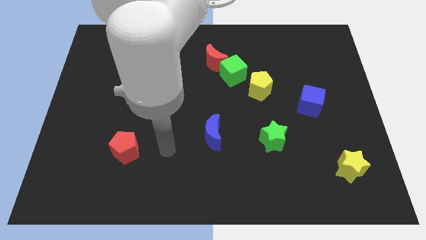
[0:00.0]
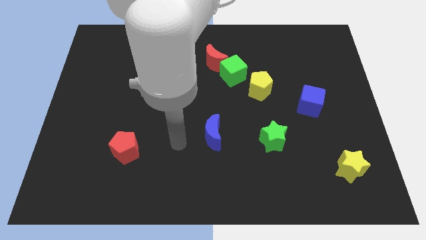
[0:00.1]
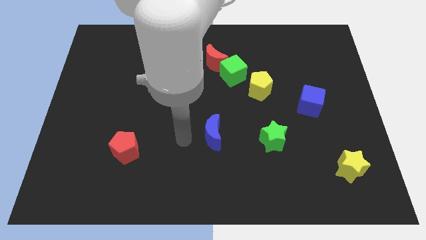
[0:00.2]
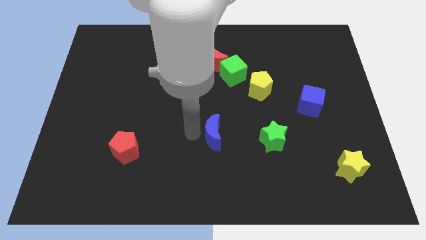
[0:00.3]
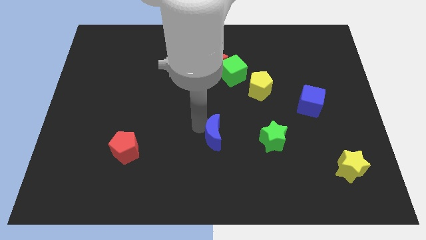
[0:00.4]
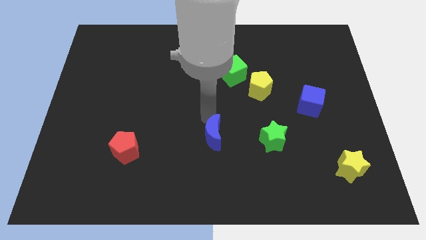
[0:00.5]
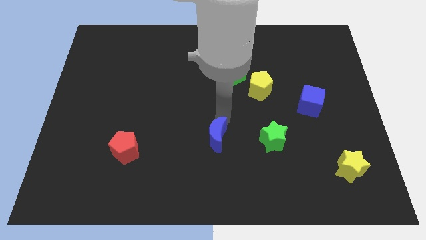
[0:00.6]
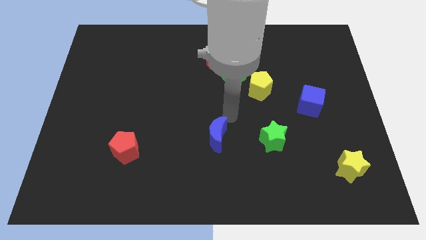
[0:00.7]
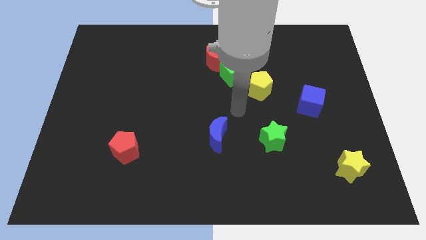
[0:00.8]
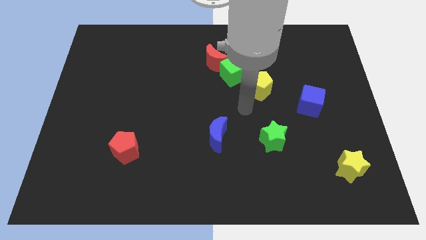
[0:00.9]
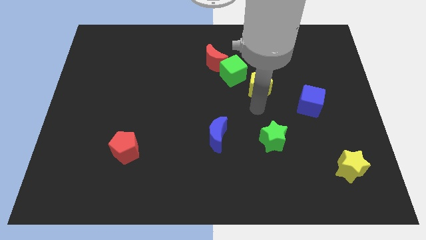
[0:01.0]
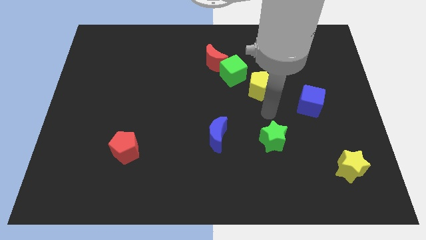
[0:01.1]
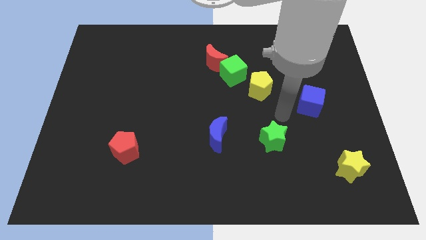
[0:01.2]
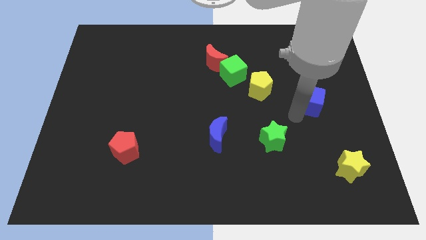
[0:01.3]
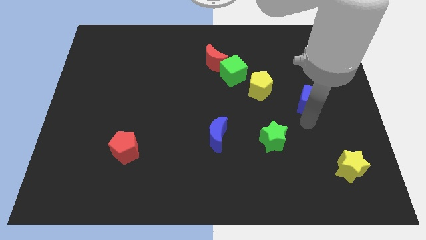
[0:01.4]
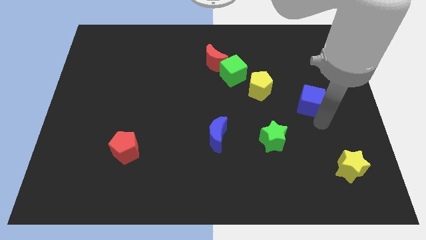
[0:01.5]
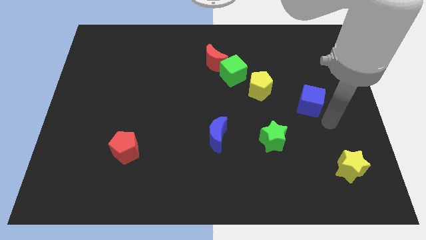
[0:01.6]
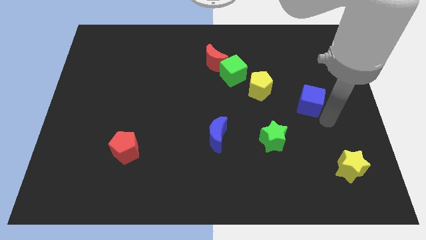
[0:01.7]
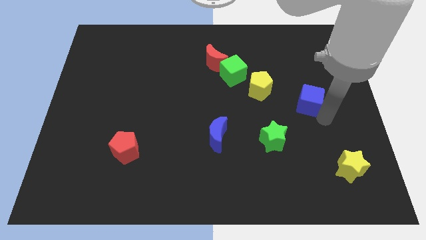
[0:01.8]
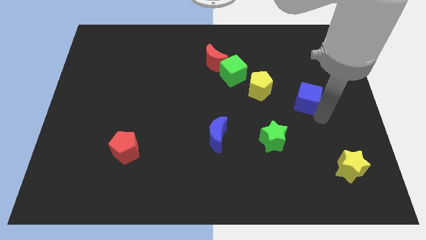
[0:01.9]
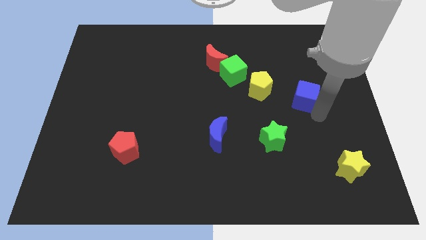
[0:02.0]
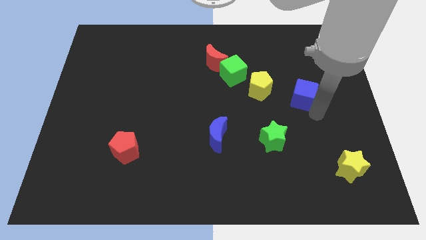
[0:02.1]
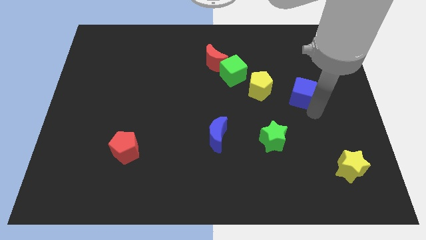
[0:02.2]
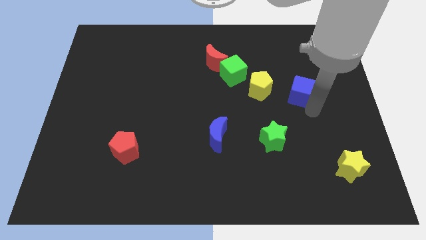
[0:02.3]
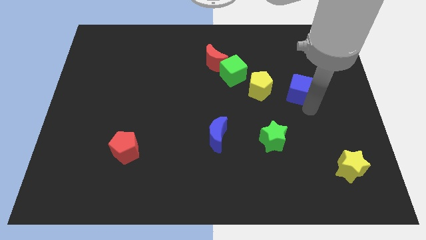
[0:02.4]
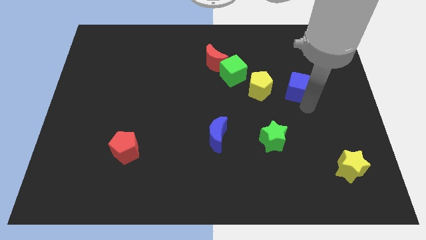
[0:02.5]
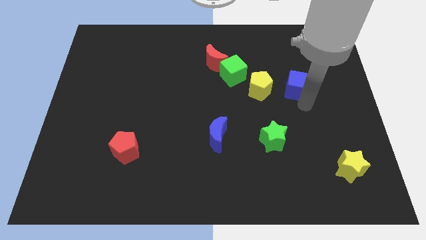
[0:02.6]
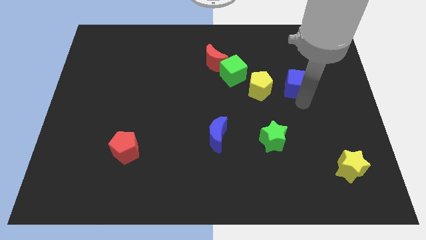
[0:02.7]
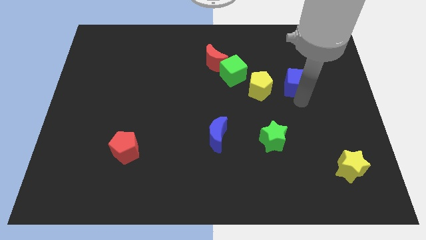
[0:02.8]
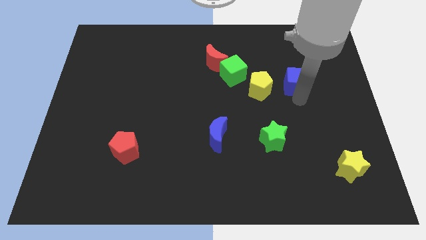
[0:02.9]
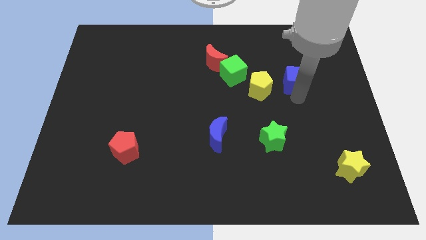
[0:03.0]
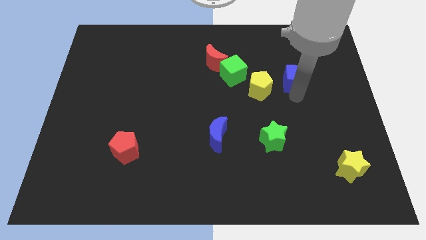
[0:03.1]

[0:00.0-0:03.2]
slide the blue cube upwards and to the left a little

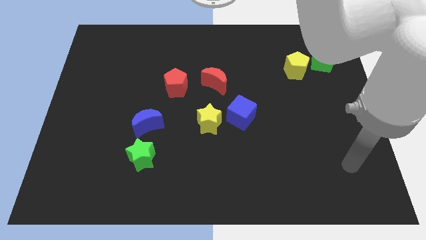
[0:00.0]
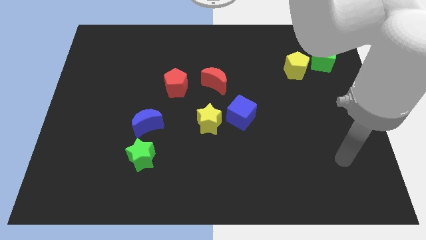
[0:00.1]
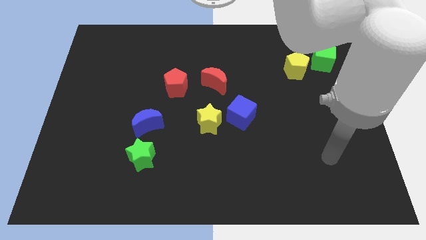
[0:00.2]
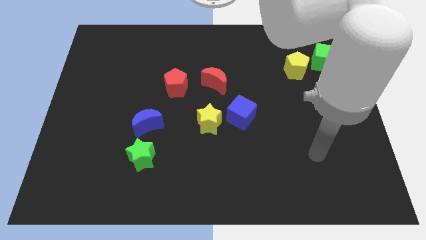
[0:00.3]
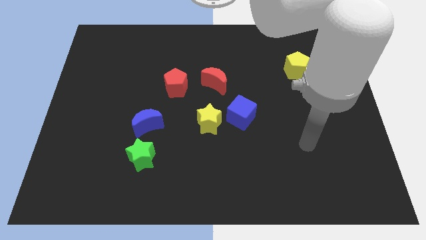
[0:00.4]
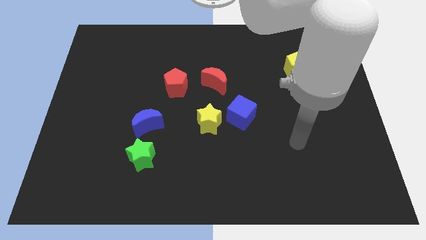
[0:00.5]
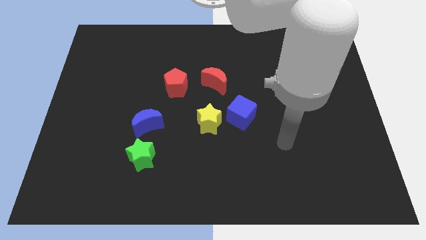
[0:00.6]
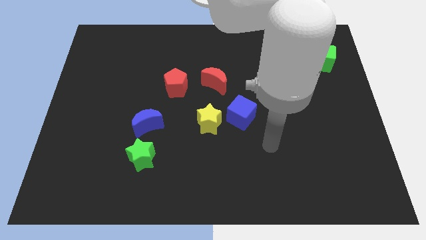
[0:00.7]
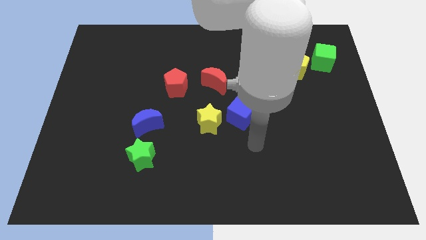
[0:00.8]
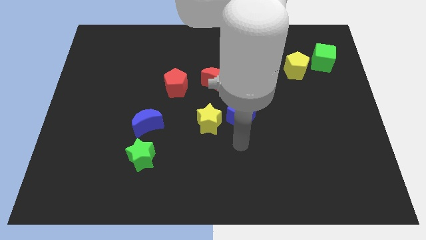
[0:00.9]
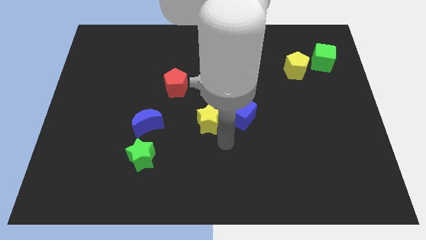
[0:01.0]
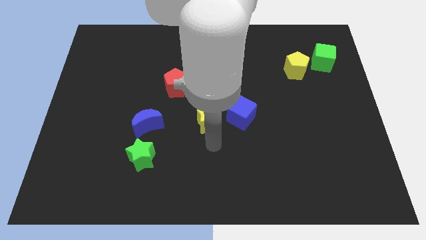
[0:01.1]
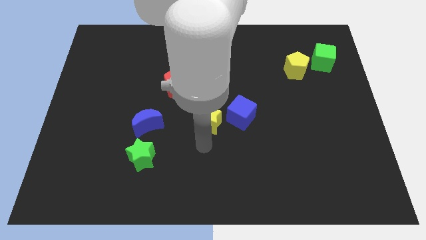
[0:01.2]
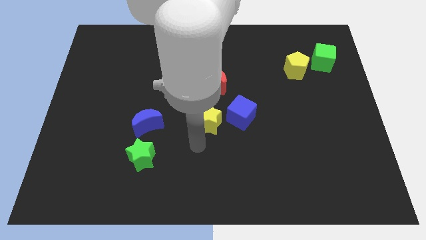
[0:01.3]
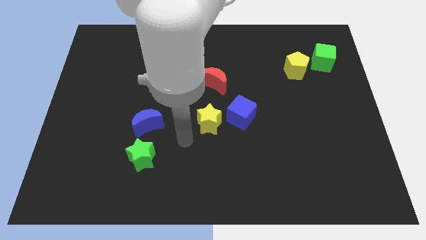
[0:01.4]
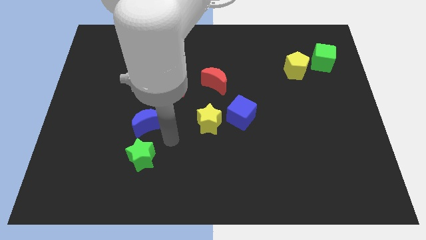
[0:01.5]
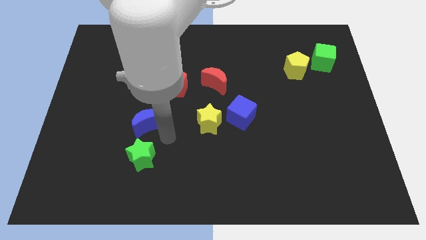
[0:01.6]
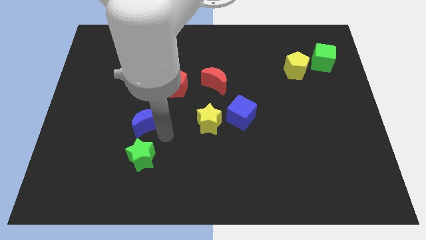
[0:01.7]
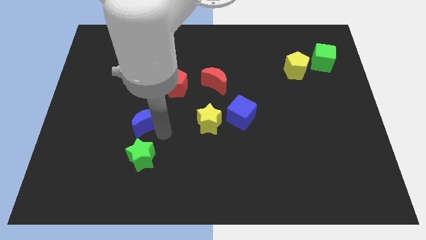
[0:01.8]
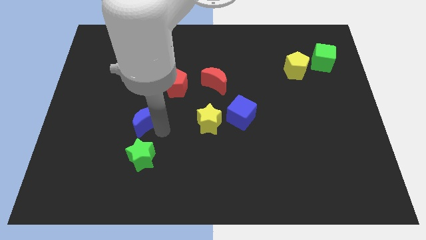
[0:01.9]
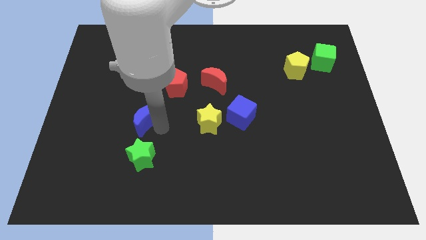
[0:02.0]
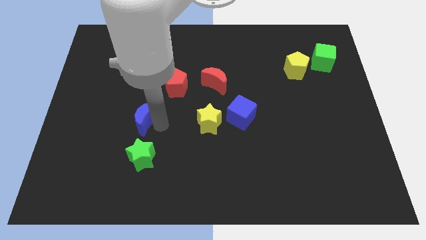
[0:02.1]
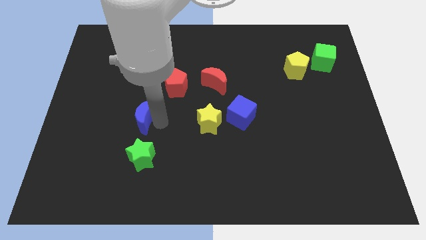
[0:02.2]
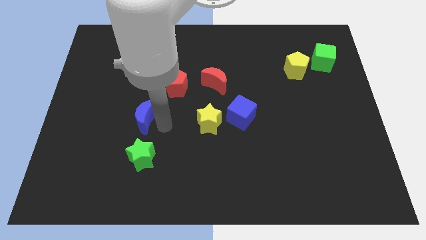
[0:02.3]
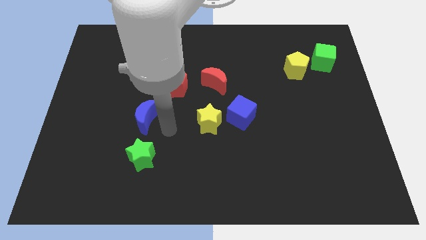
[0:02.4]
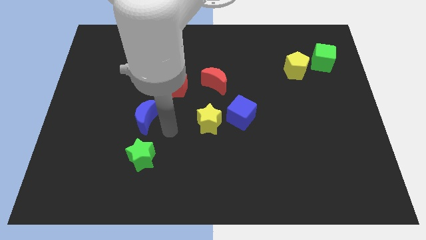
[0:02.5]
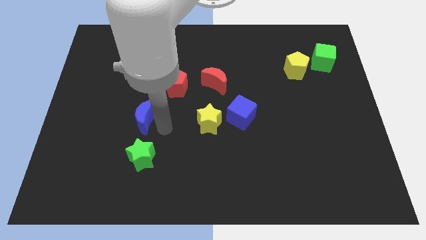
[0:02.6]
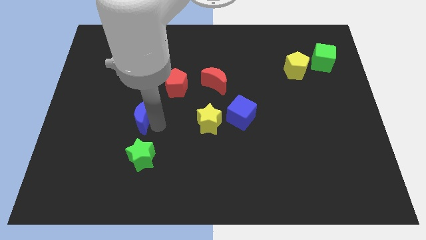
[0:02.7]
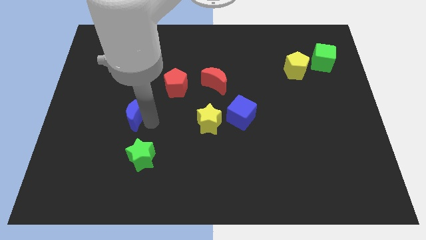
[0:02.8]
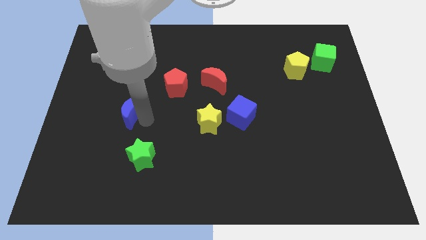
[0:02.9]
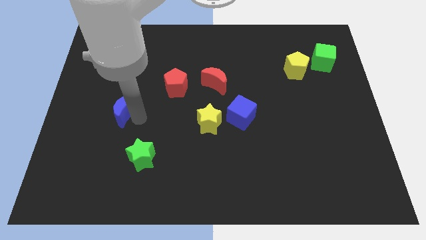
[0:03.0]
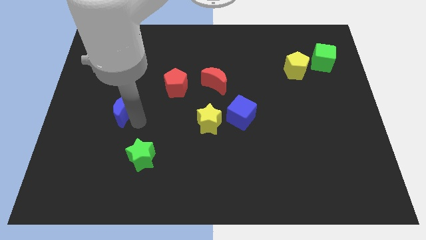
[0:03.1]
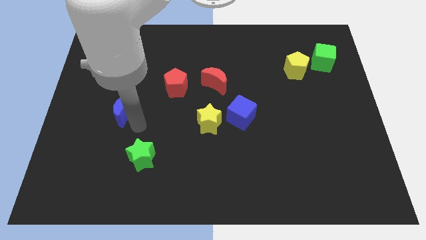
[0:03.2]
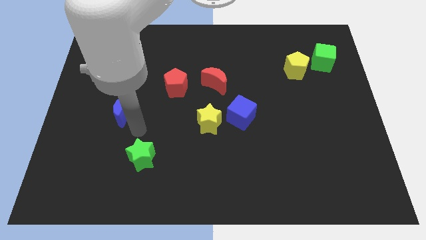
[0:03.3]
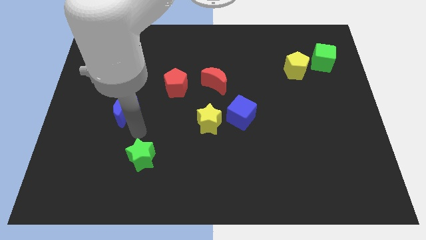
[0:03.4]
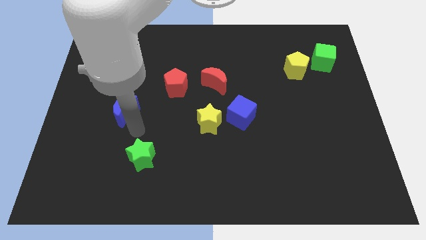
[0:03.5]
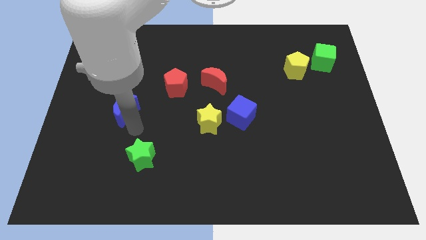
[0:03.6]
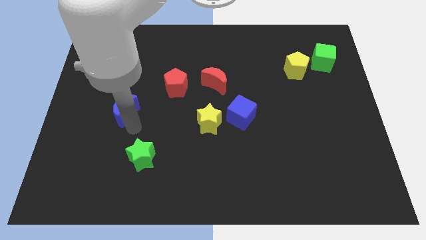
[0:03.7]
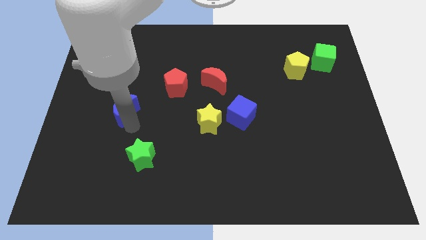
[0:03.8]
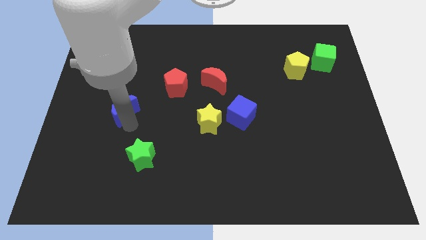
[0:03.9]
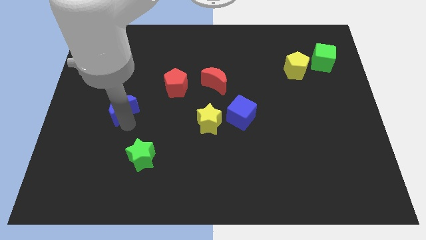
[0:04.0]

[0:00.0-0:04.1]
slide the blue moon up and left somewhat

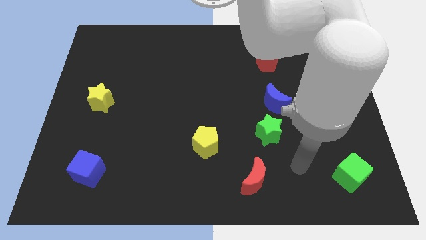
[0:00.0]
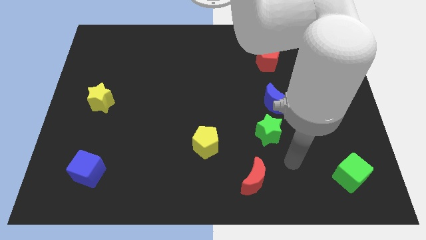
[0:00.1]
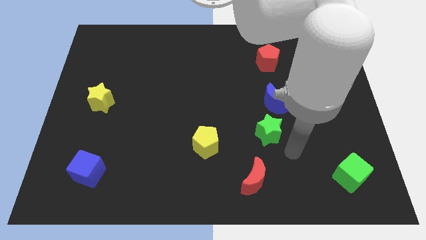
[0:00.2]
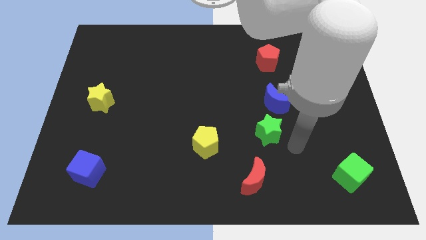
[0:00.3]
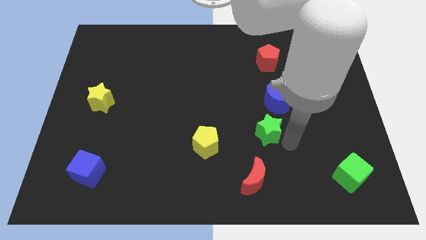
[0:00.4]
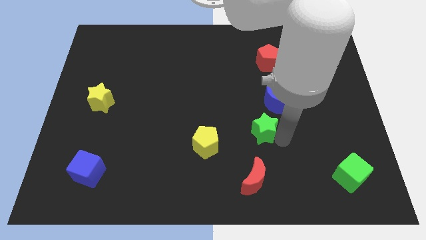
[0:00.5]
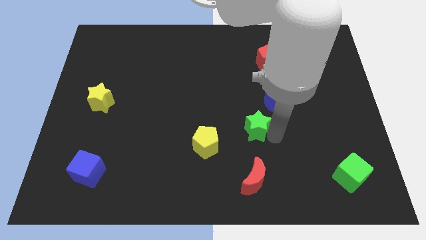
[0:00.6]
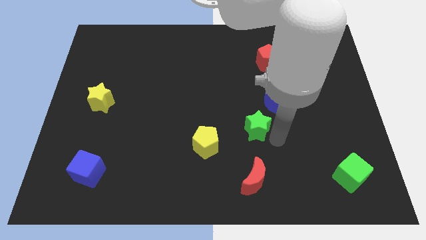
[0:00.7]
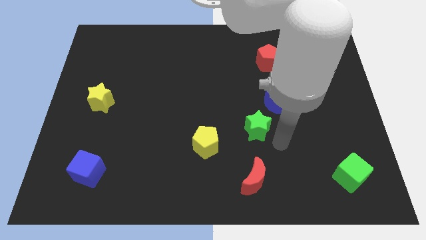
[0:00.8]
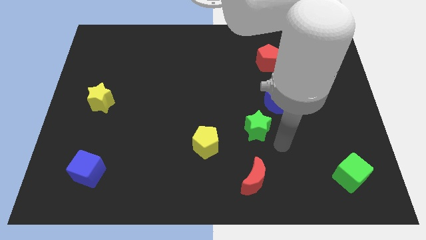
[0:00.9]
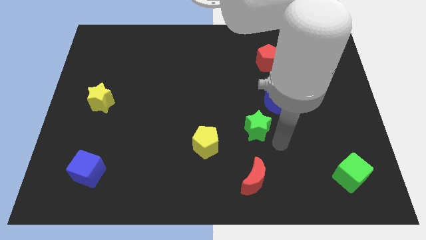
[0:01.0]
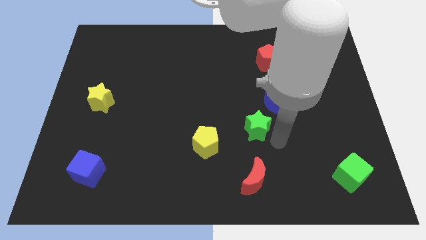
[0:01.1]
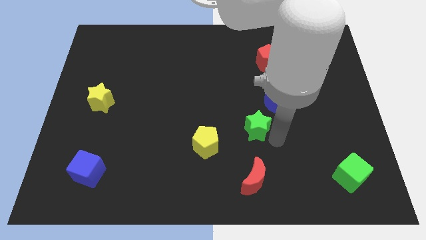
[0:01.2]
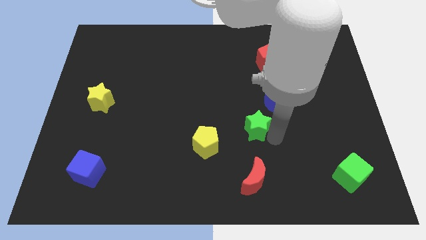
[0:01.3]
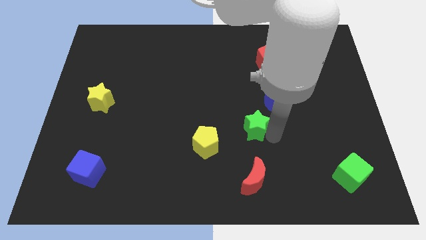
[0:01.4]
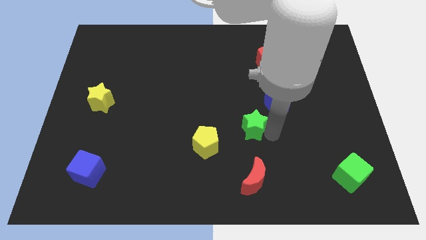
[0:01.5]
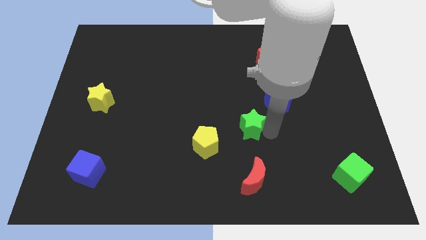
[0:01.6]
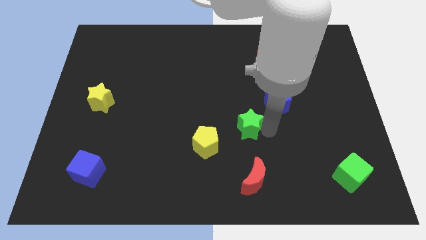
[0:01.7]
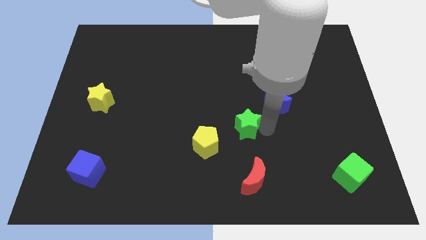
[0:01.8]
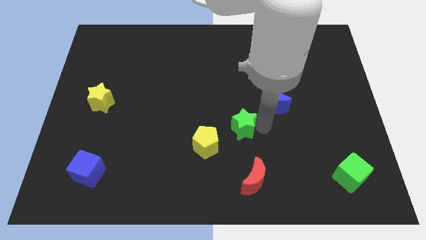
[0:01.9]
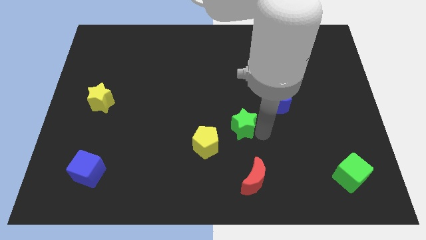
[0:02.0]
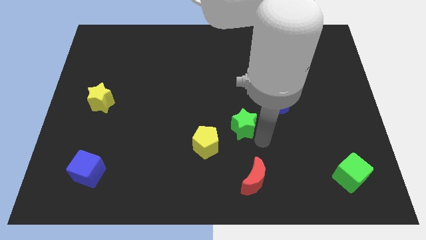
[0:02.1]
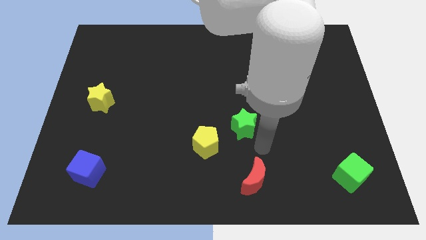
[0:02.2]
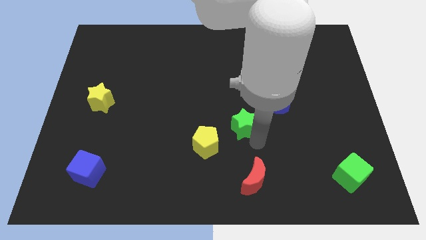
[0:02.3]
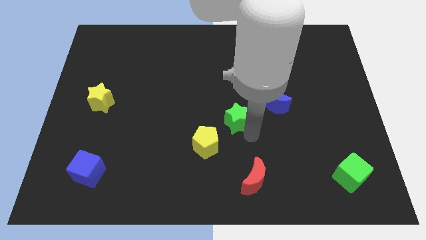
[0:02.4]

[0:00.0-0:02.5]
move the green star a bit diagonally upwards and left
